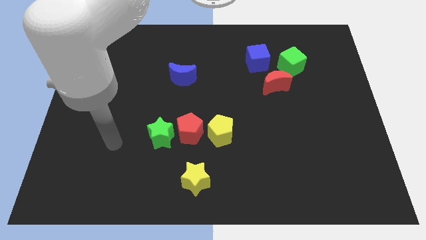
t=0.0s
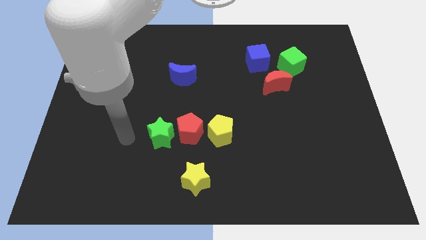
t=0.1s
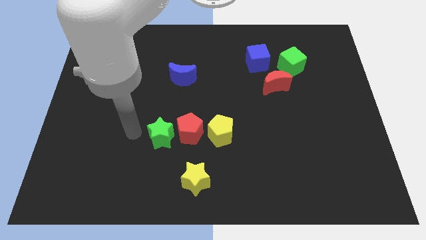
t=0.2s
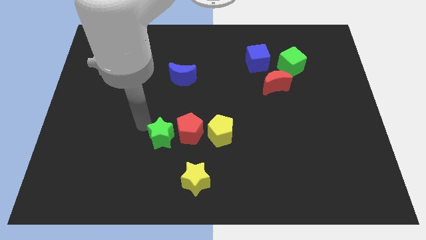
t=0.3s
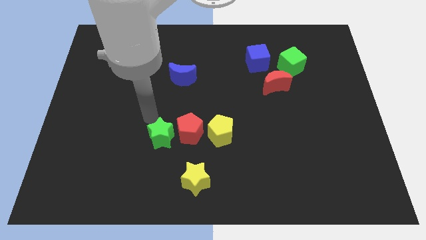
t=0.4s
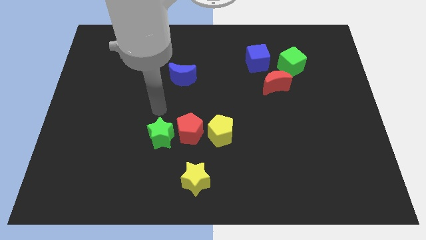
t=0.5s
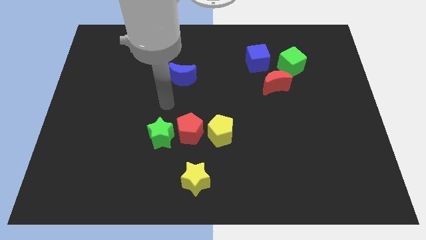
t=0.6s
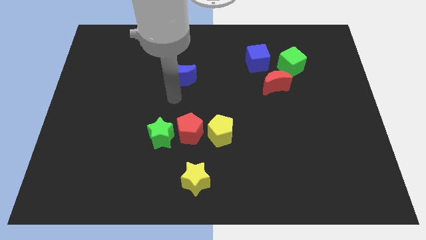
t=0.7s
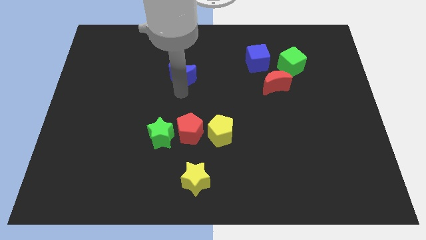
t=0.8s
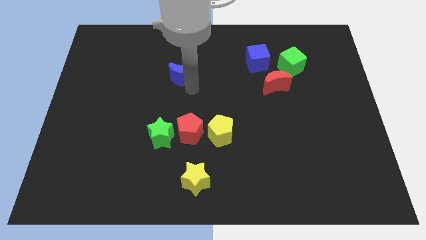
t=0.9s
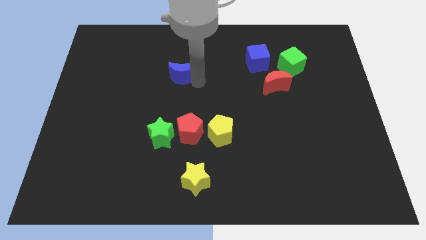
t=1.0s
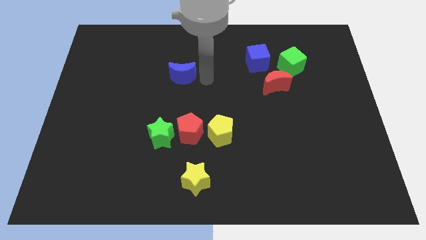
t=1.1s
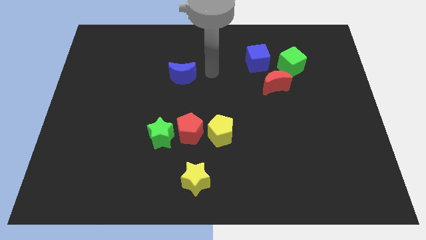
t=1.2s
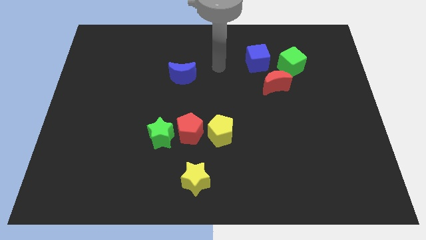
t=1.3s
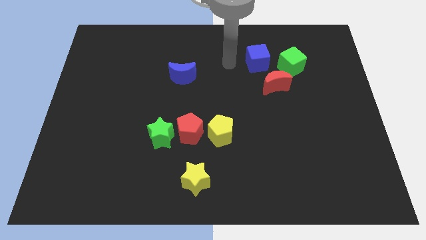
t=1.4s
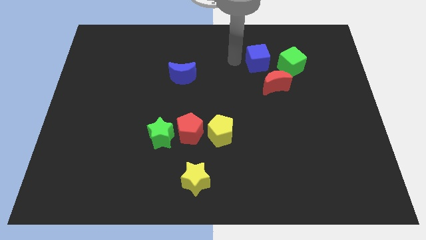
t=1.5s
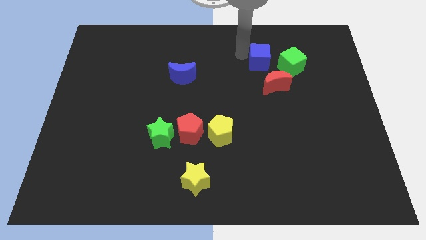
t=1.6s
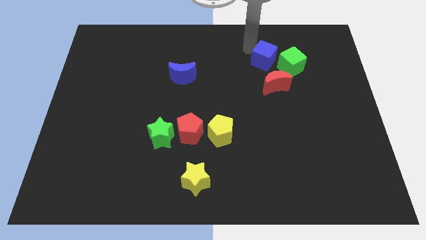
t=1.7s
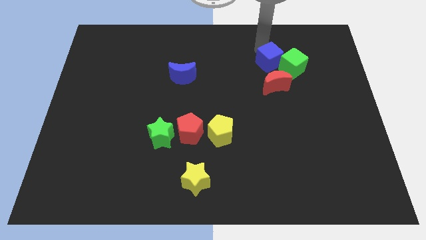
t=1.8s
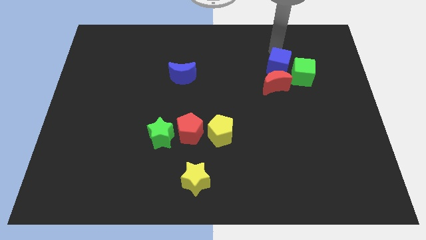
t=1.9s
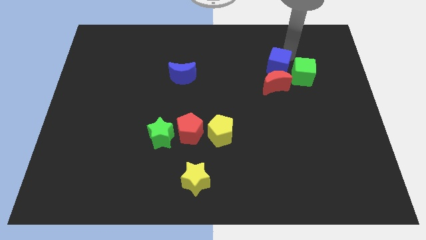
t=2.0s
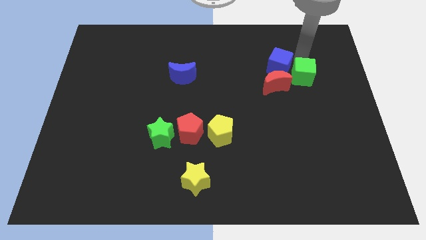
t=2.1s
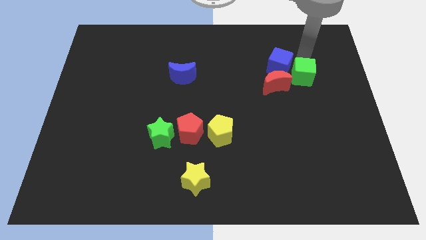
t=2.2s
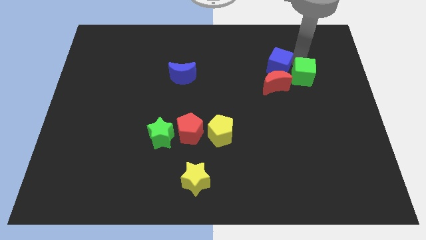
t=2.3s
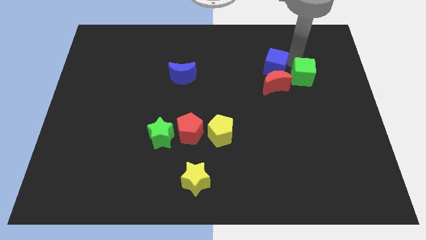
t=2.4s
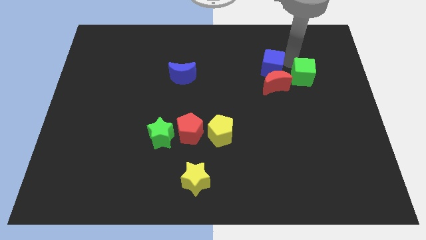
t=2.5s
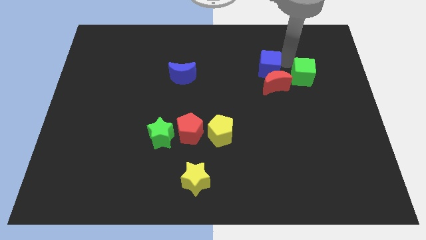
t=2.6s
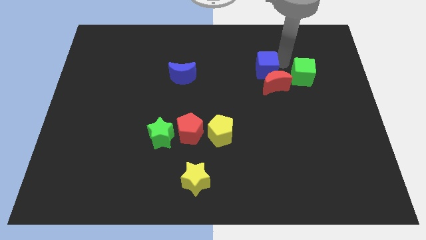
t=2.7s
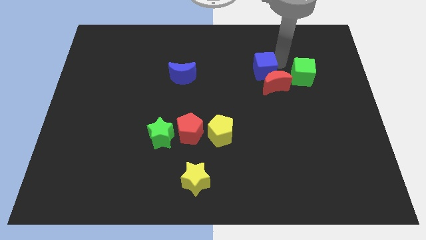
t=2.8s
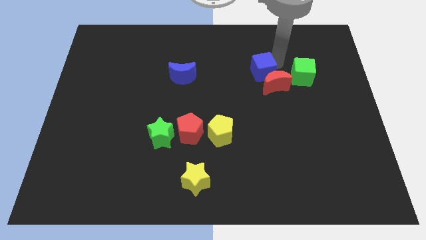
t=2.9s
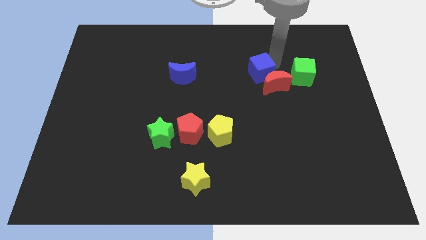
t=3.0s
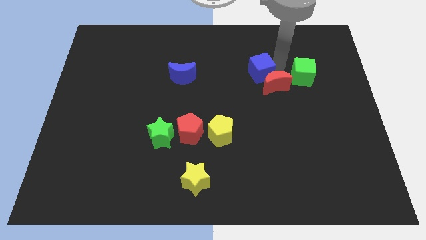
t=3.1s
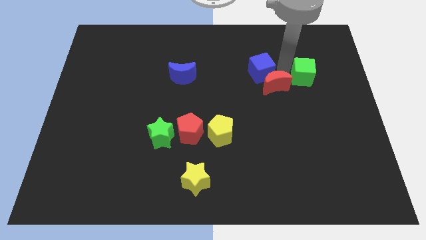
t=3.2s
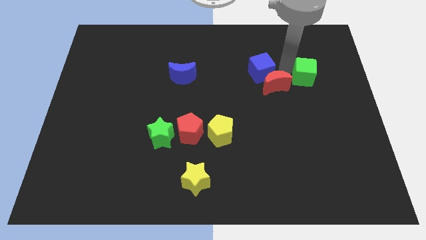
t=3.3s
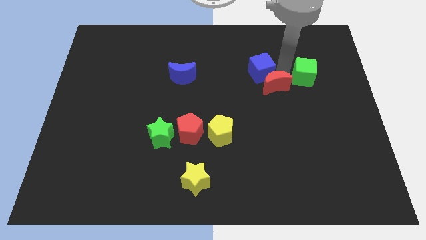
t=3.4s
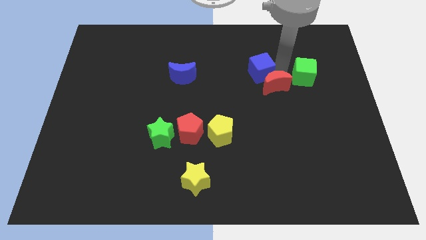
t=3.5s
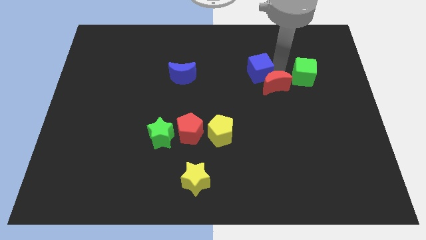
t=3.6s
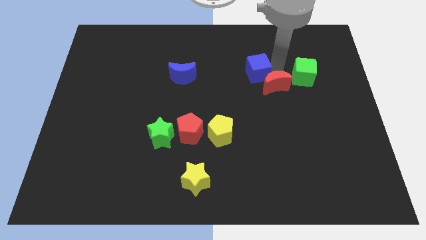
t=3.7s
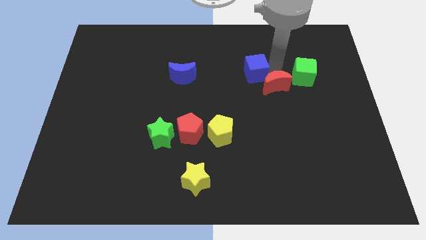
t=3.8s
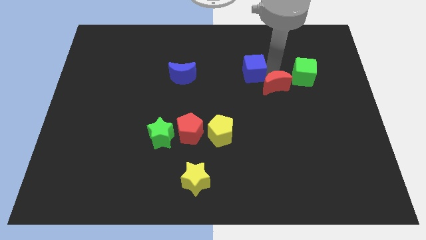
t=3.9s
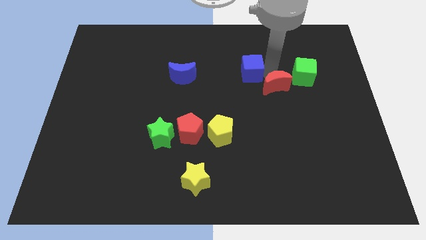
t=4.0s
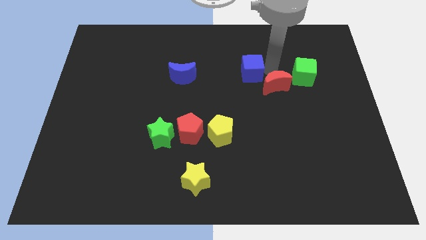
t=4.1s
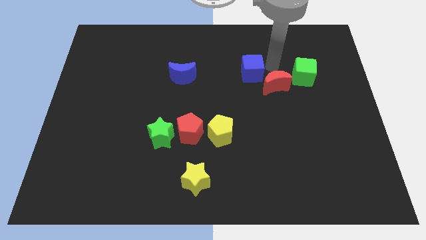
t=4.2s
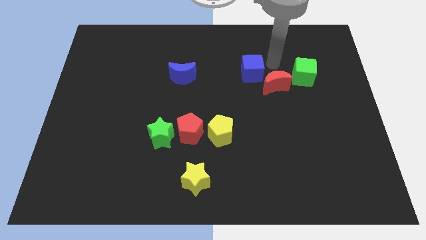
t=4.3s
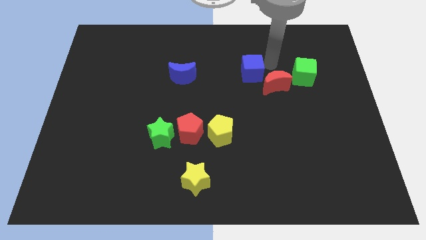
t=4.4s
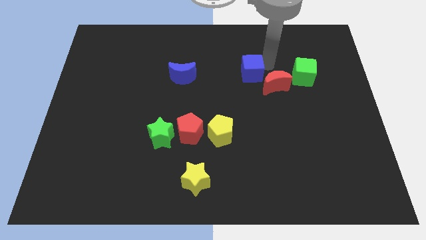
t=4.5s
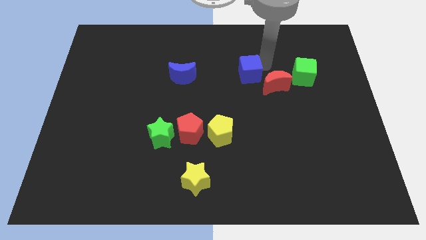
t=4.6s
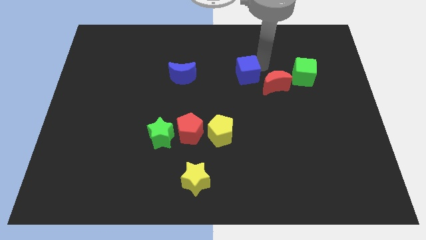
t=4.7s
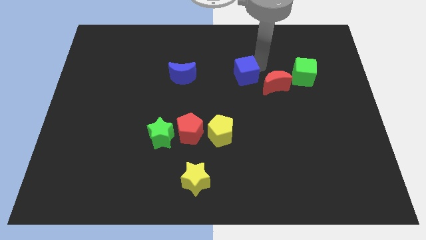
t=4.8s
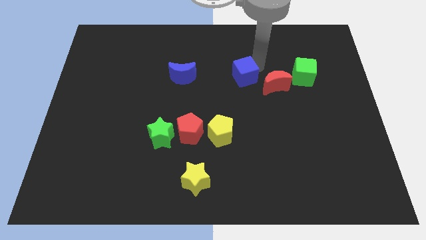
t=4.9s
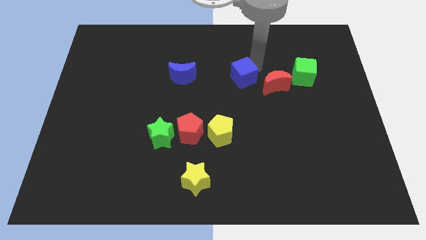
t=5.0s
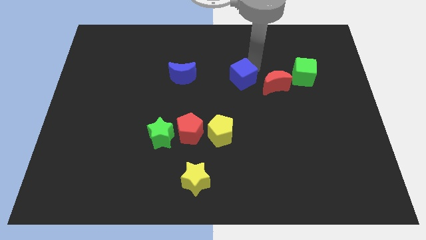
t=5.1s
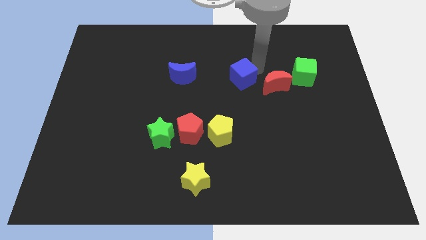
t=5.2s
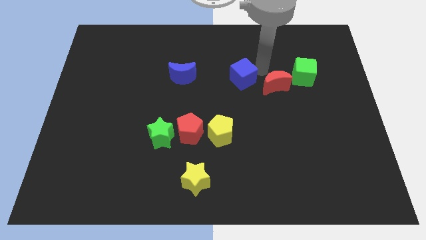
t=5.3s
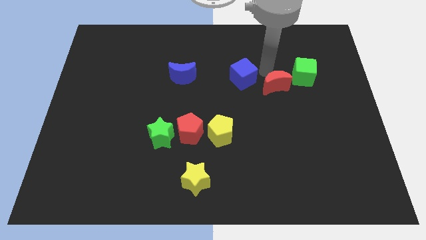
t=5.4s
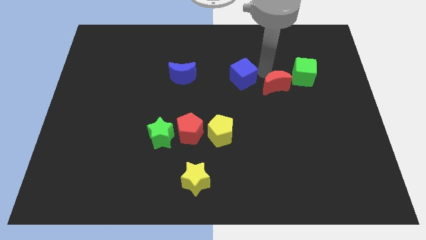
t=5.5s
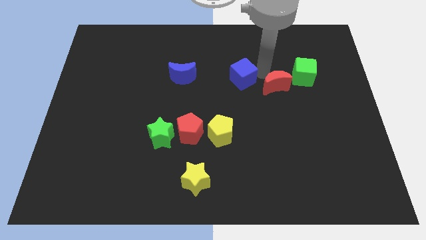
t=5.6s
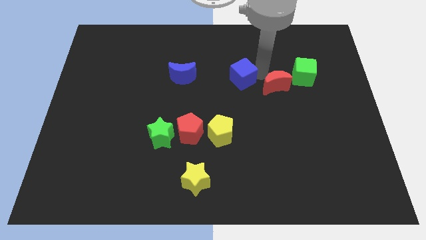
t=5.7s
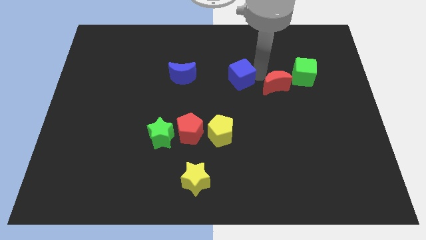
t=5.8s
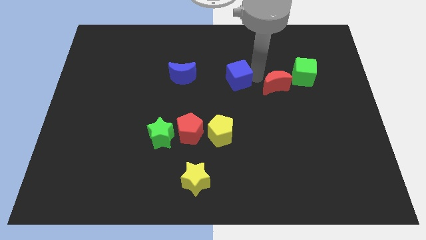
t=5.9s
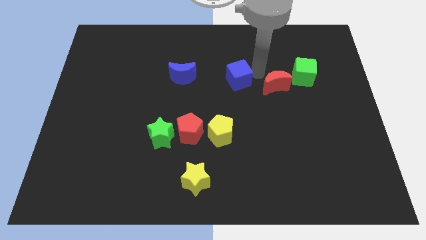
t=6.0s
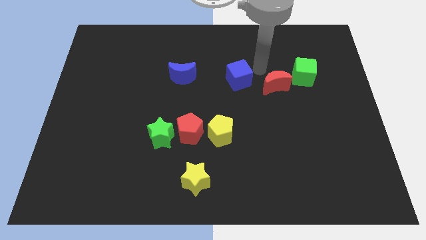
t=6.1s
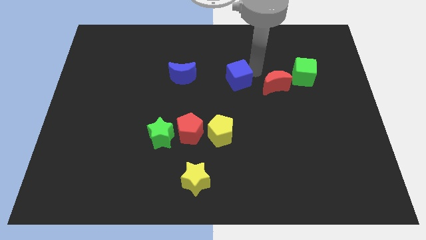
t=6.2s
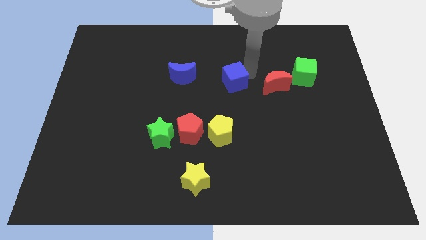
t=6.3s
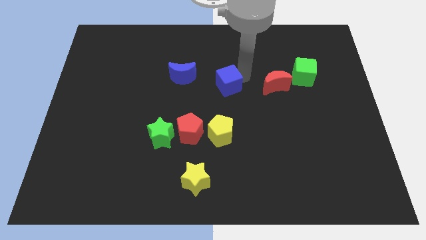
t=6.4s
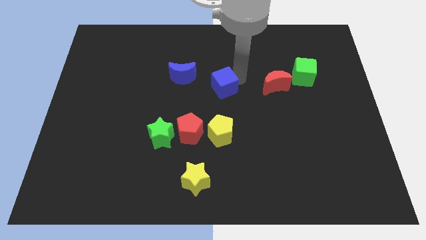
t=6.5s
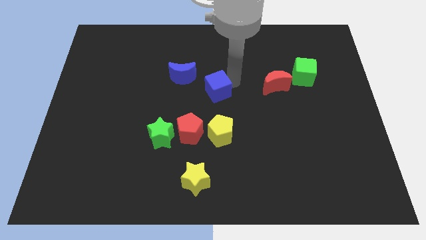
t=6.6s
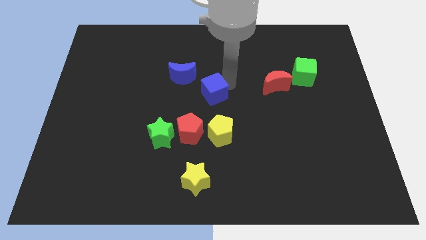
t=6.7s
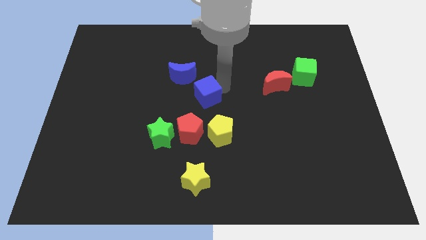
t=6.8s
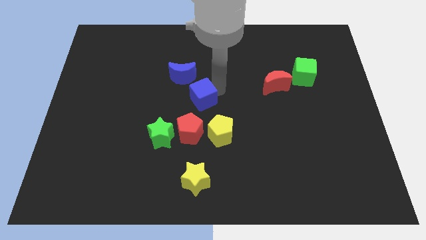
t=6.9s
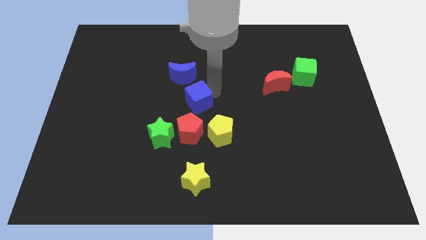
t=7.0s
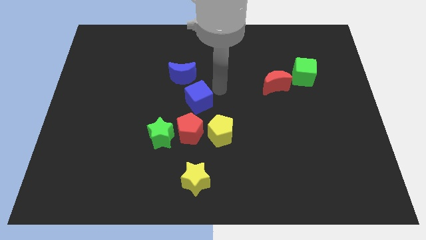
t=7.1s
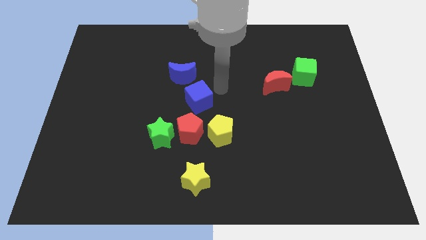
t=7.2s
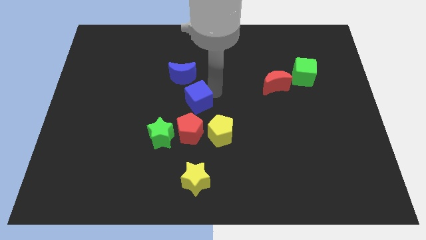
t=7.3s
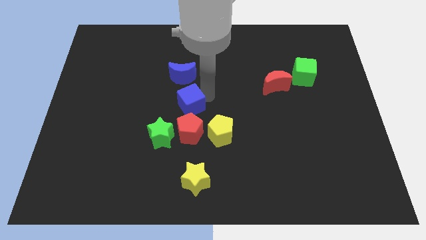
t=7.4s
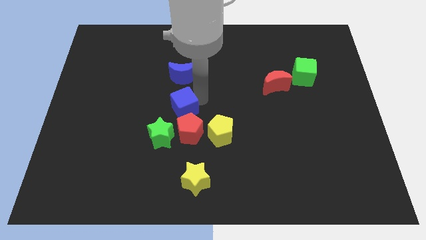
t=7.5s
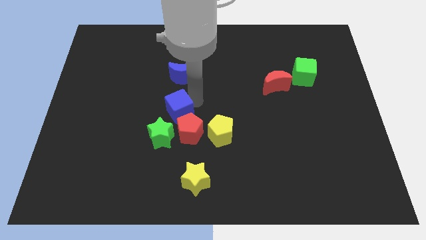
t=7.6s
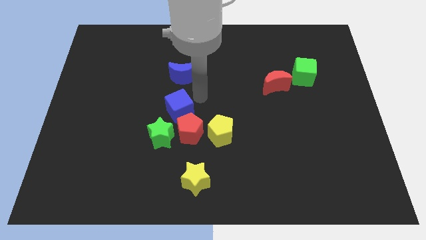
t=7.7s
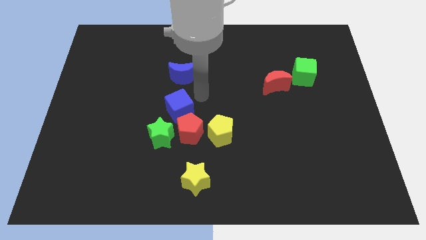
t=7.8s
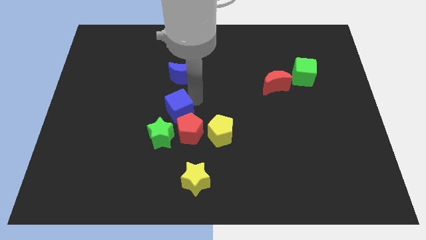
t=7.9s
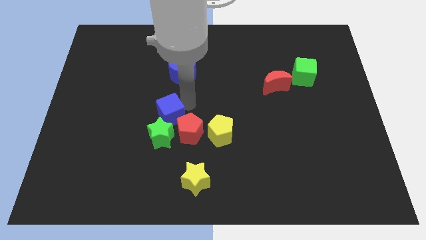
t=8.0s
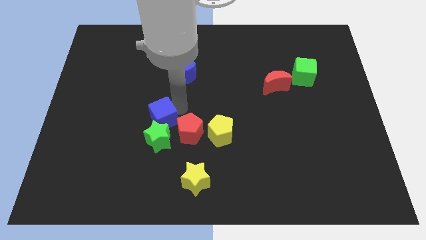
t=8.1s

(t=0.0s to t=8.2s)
put the blue cube left of the red pentagon
